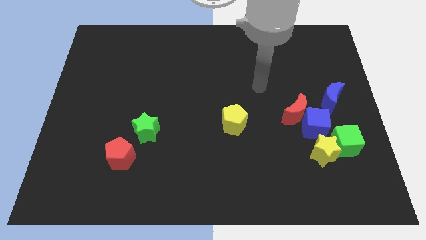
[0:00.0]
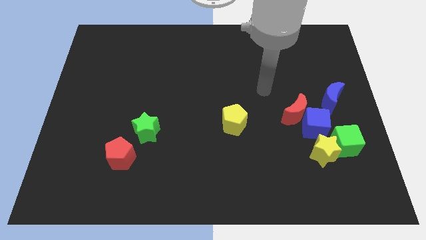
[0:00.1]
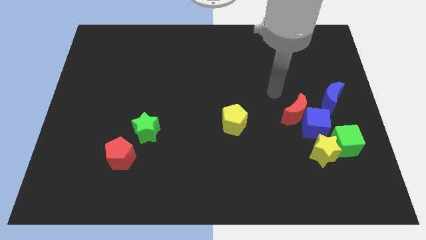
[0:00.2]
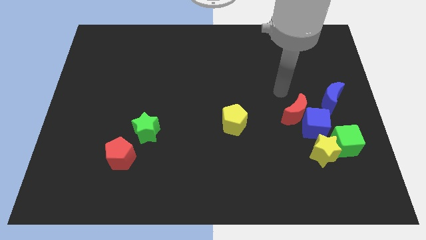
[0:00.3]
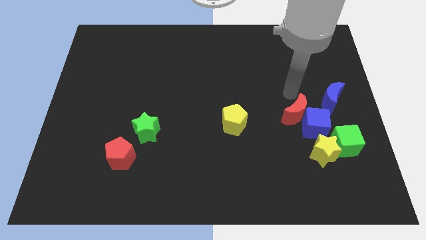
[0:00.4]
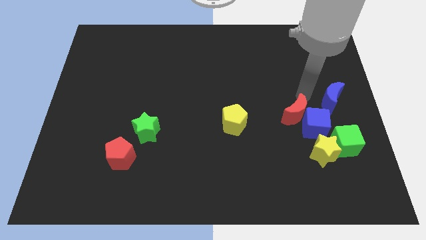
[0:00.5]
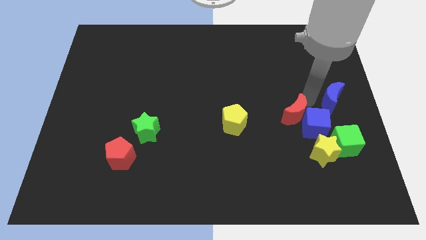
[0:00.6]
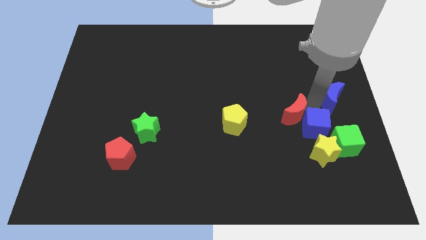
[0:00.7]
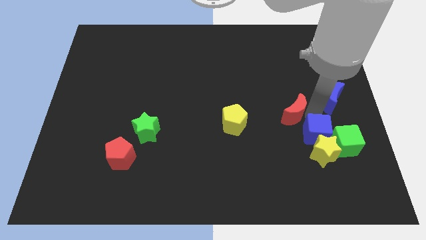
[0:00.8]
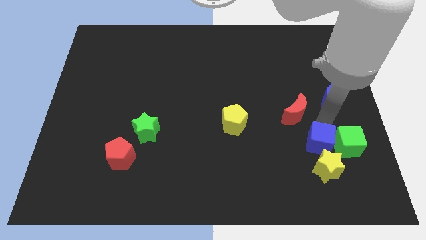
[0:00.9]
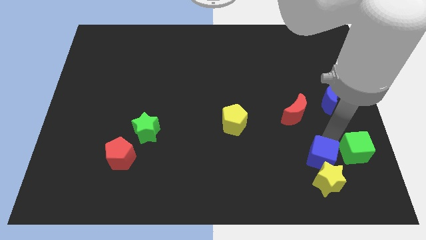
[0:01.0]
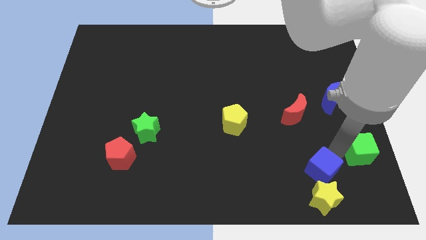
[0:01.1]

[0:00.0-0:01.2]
pull the yellow star apart from the green cube and blue cube

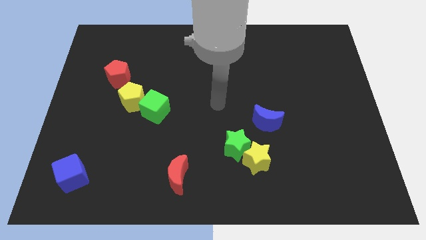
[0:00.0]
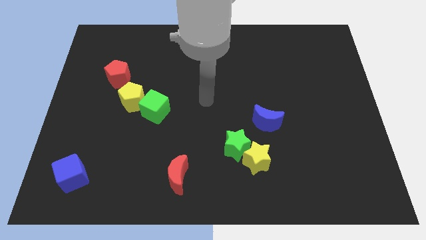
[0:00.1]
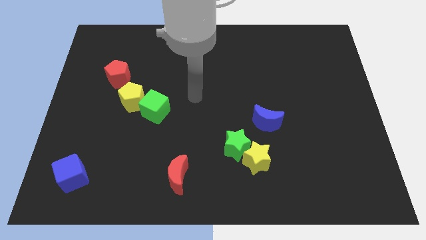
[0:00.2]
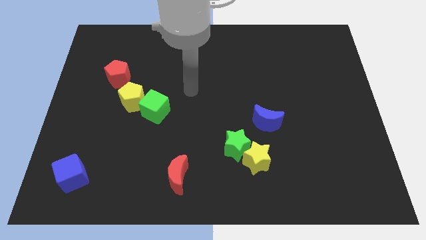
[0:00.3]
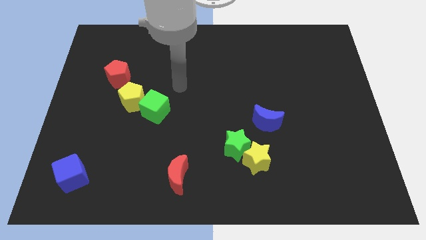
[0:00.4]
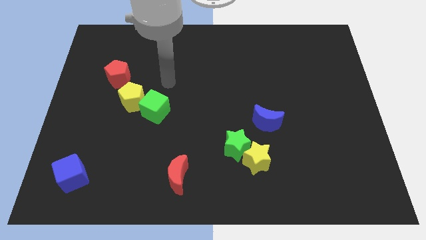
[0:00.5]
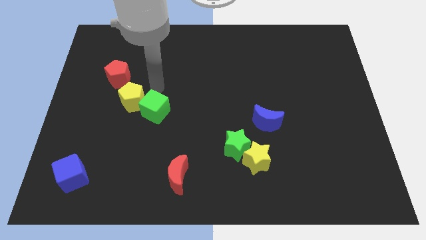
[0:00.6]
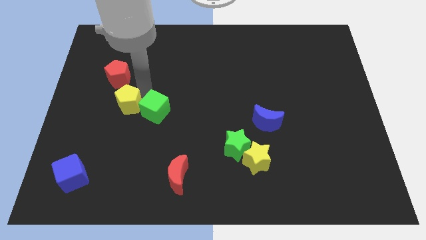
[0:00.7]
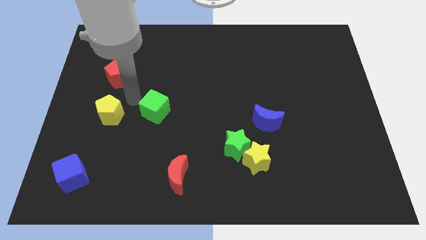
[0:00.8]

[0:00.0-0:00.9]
pull the green cube apart from the yellow pentagon

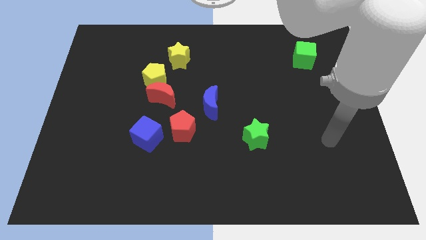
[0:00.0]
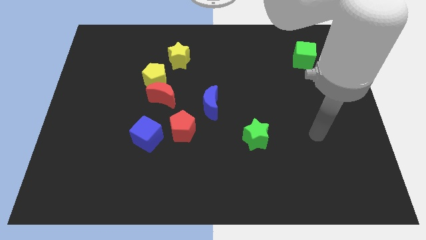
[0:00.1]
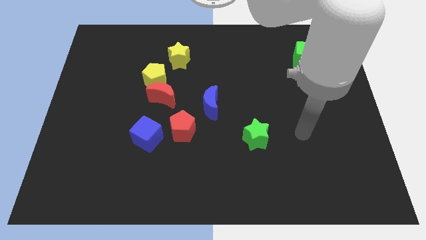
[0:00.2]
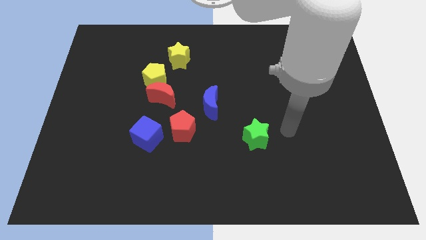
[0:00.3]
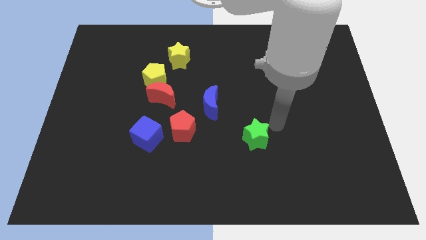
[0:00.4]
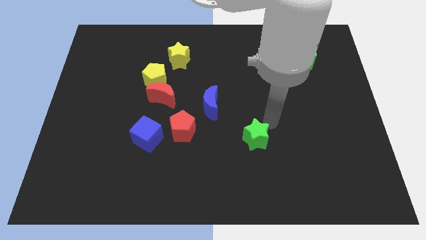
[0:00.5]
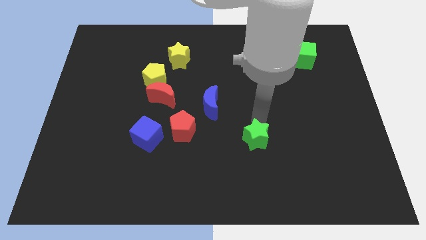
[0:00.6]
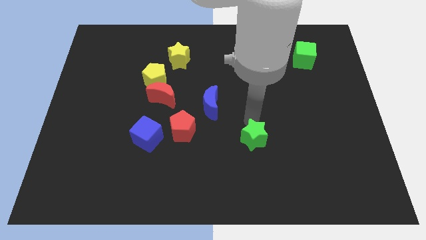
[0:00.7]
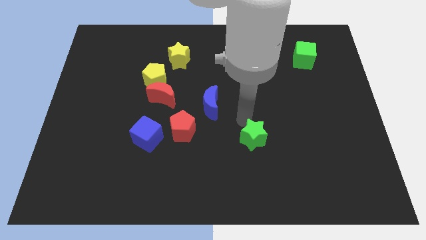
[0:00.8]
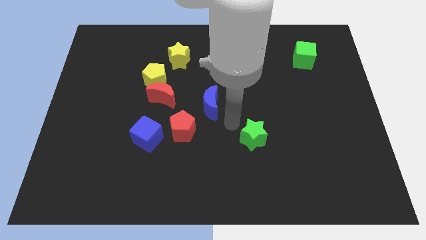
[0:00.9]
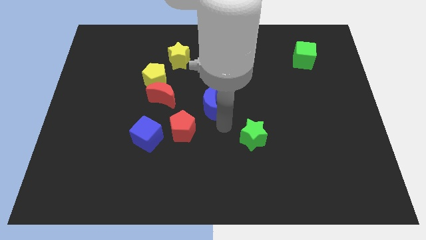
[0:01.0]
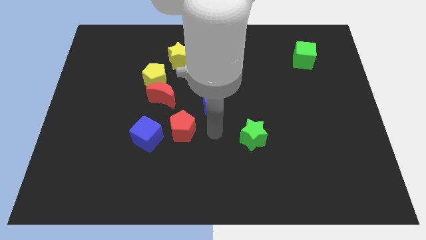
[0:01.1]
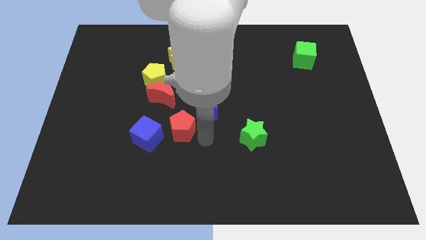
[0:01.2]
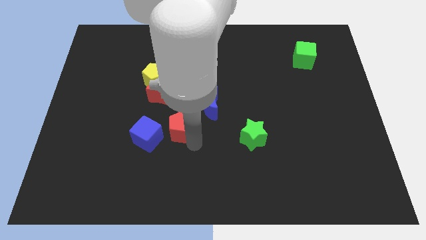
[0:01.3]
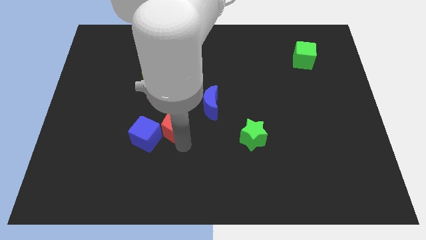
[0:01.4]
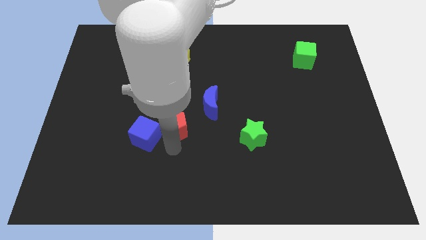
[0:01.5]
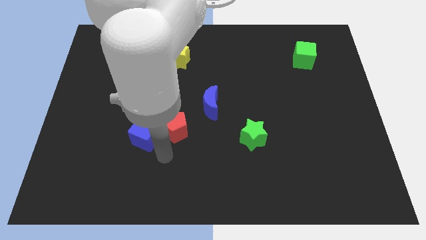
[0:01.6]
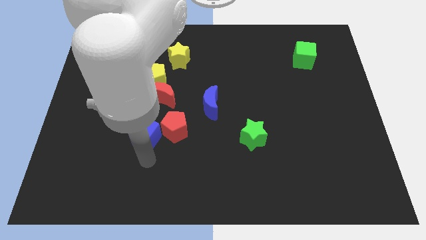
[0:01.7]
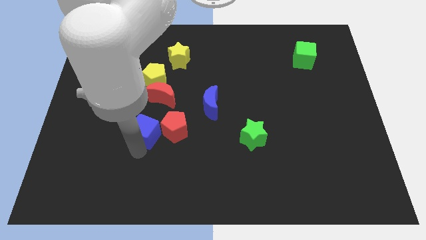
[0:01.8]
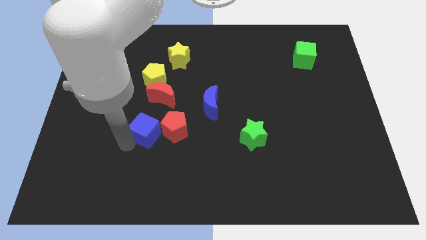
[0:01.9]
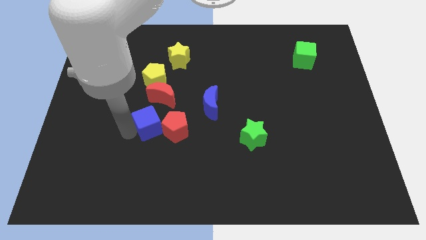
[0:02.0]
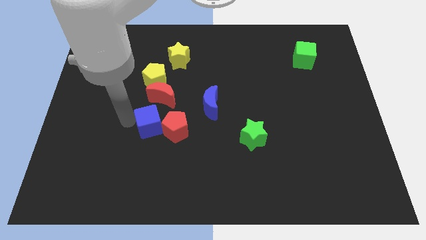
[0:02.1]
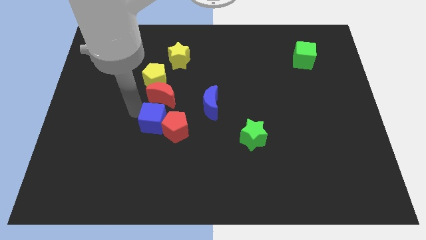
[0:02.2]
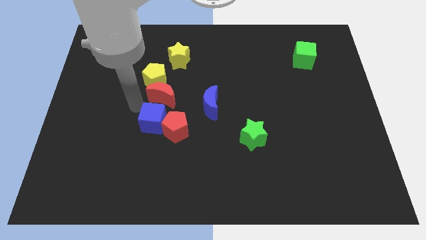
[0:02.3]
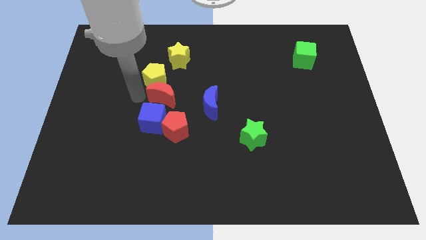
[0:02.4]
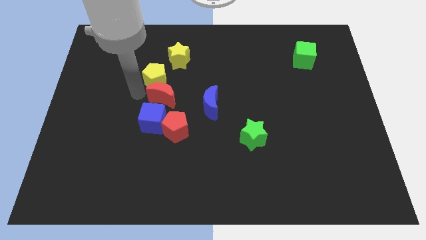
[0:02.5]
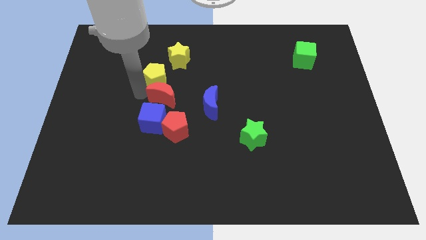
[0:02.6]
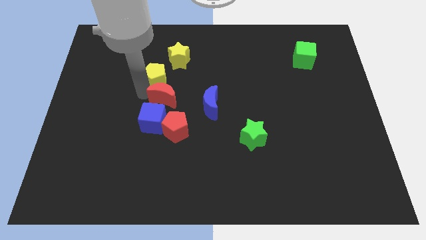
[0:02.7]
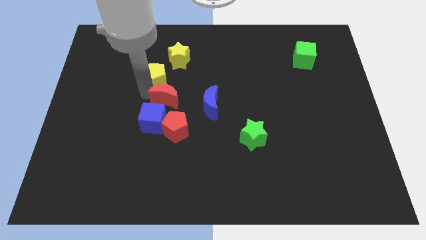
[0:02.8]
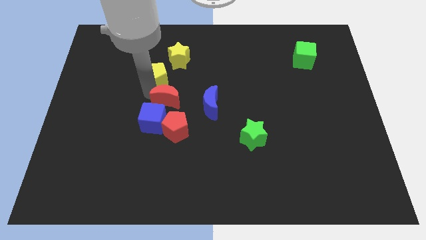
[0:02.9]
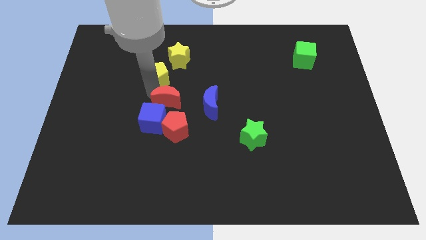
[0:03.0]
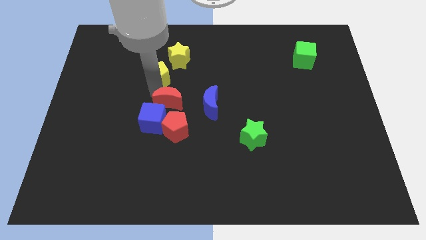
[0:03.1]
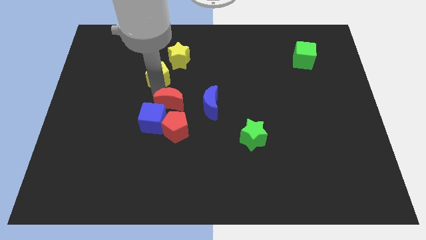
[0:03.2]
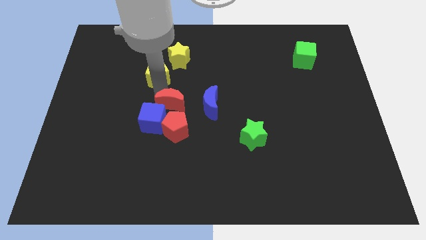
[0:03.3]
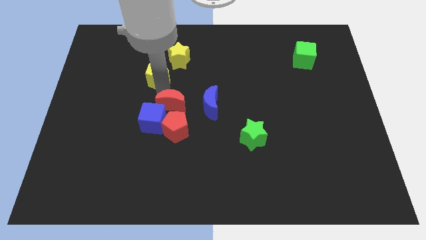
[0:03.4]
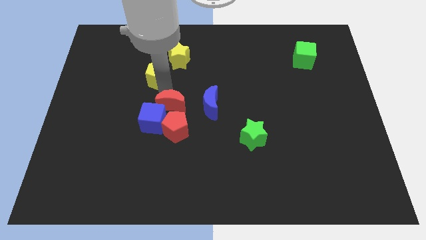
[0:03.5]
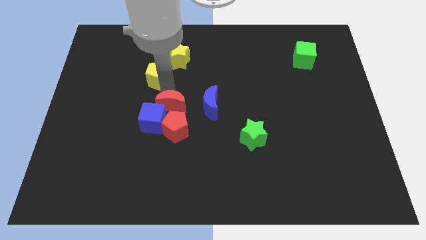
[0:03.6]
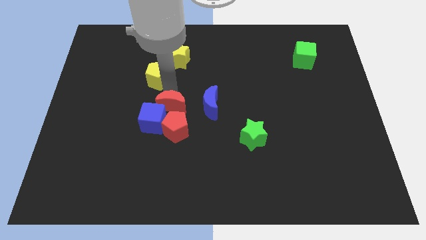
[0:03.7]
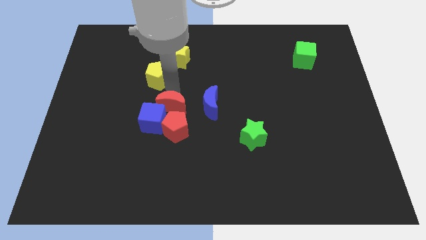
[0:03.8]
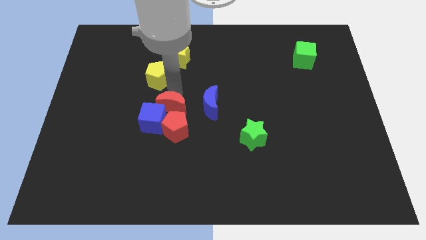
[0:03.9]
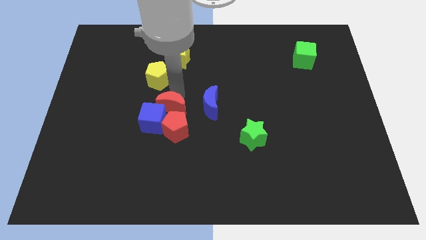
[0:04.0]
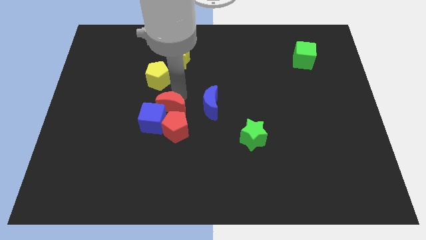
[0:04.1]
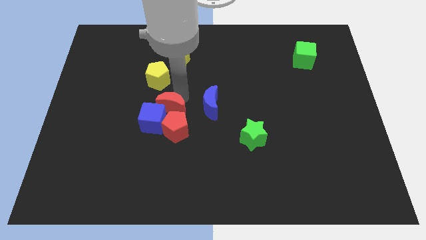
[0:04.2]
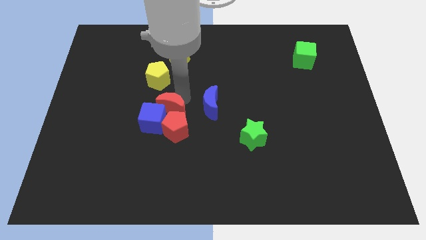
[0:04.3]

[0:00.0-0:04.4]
move the red moon away from the yellow pentagon

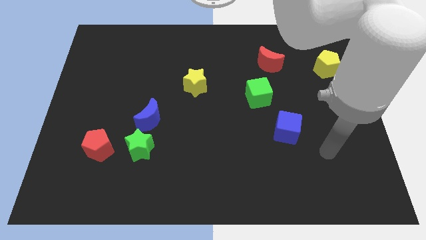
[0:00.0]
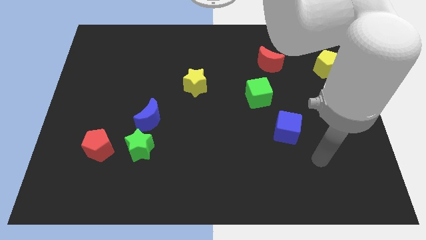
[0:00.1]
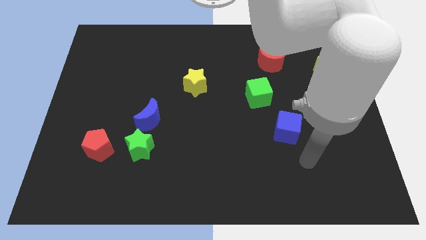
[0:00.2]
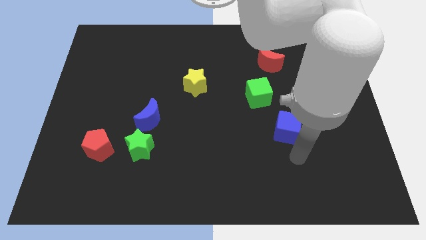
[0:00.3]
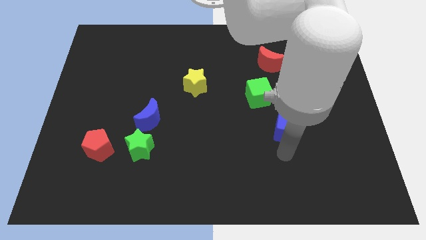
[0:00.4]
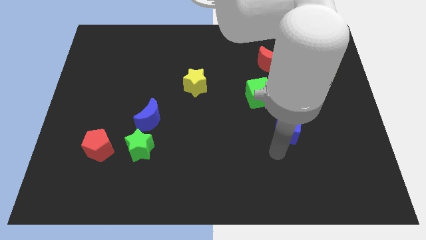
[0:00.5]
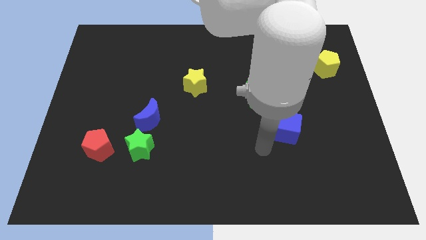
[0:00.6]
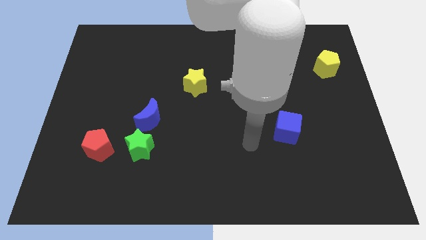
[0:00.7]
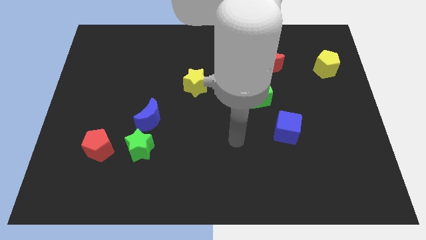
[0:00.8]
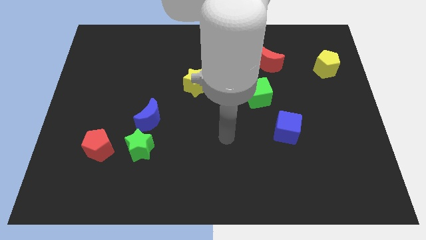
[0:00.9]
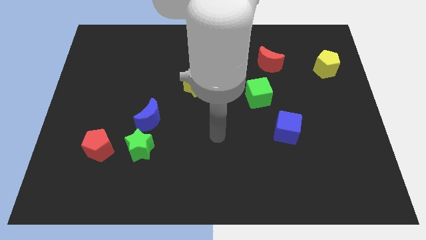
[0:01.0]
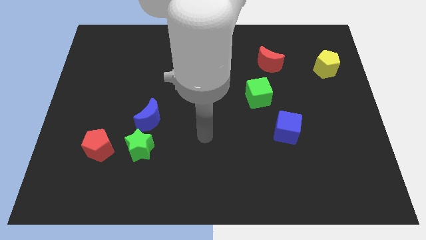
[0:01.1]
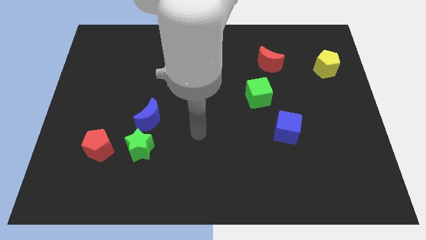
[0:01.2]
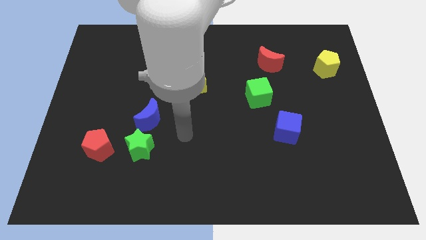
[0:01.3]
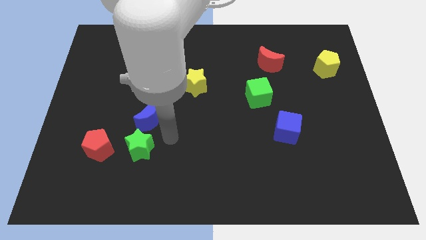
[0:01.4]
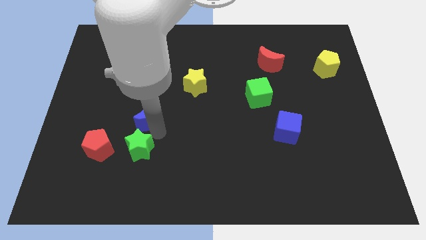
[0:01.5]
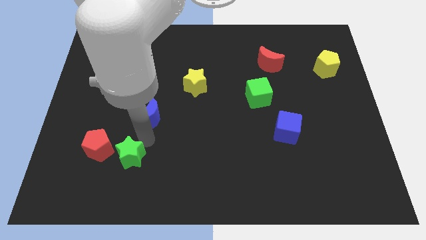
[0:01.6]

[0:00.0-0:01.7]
move the blue moon away from the green star

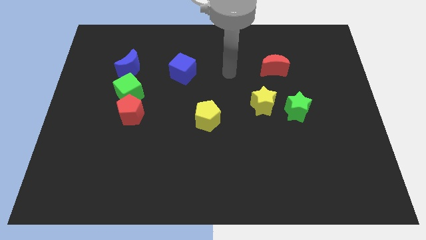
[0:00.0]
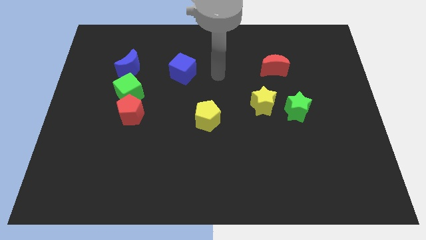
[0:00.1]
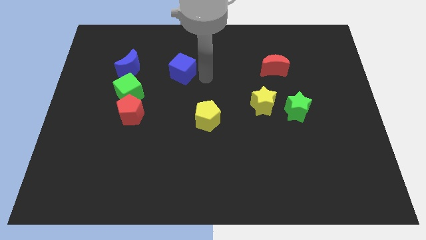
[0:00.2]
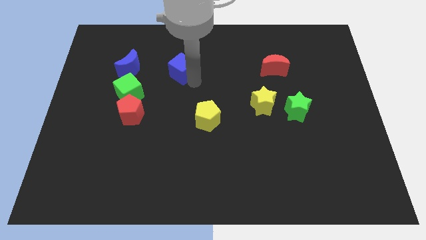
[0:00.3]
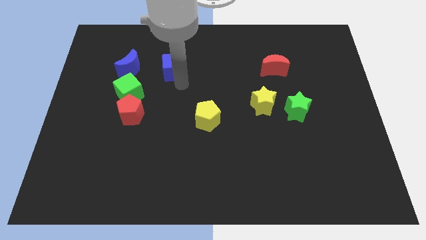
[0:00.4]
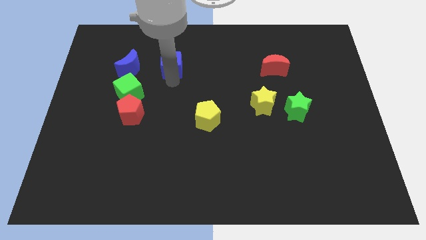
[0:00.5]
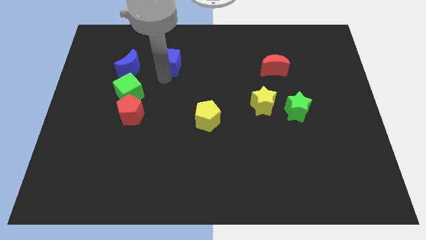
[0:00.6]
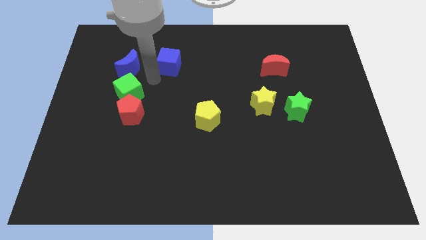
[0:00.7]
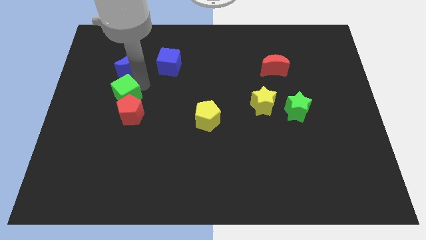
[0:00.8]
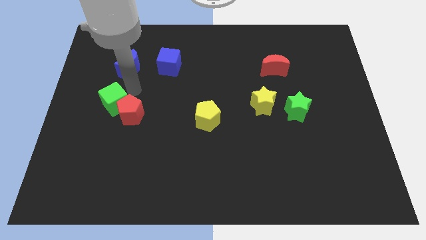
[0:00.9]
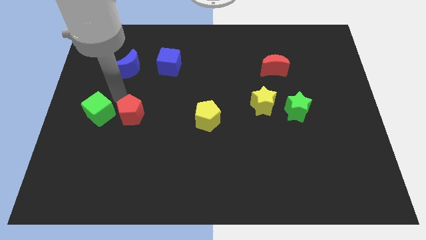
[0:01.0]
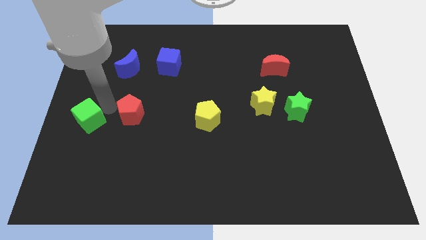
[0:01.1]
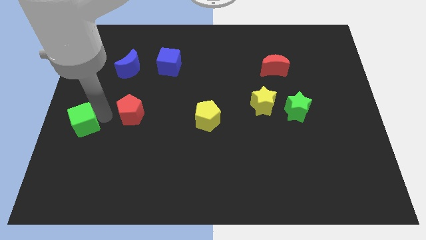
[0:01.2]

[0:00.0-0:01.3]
separate the red pentagon from the green cube
